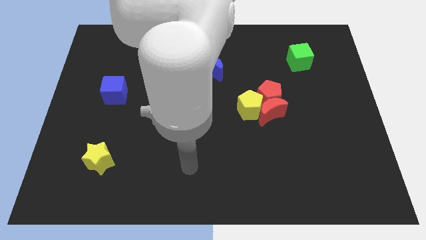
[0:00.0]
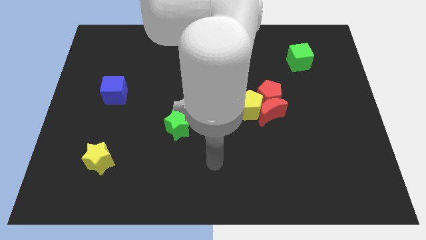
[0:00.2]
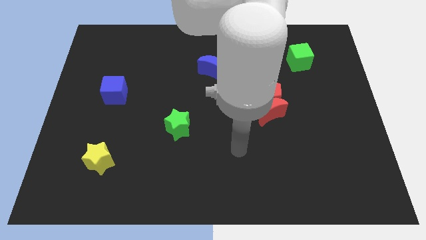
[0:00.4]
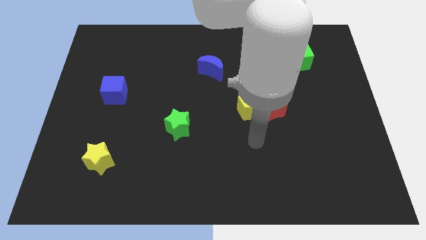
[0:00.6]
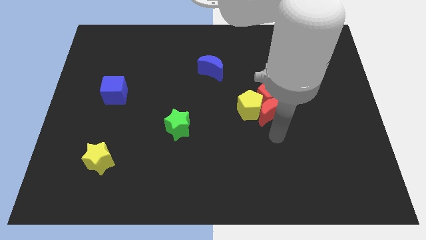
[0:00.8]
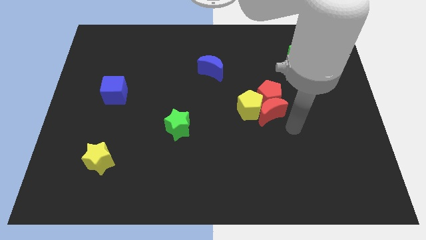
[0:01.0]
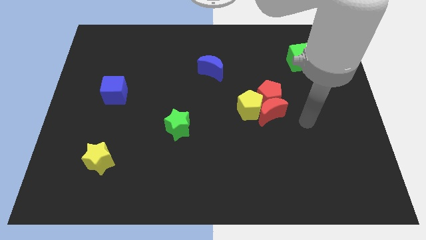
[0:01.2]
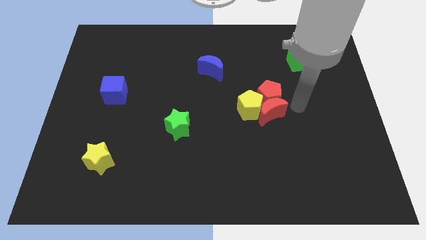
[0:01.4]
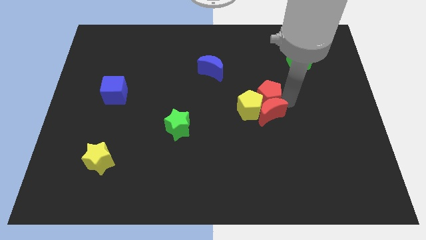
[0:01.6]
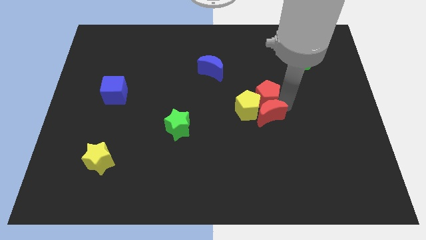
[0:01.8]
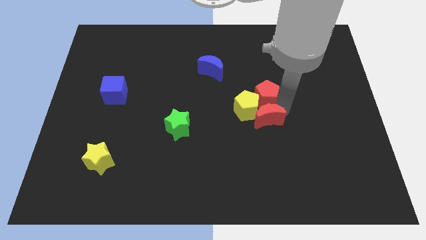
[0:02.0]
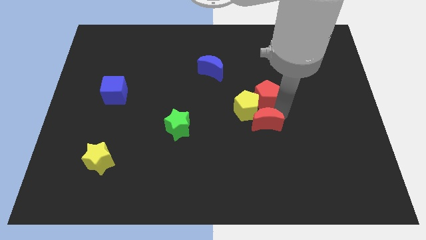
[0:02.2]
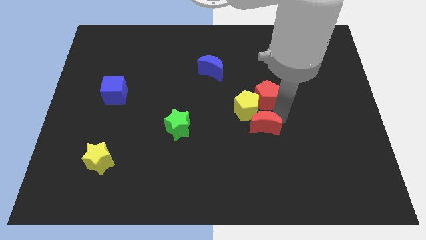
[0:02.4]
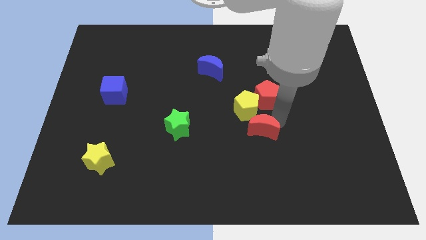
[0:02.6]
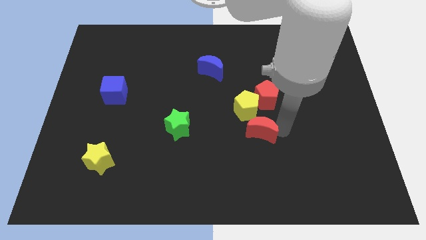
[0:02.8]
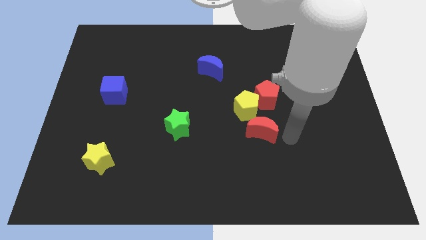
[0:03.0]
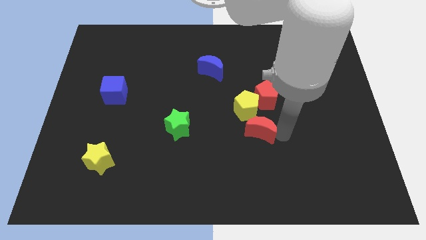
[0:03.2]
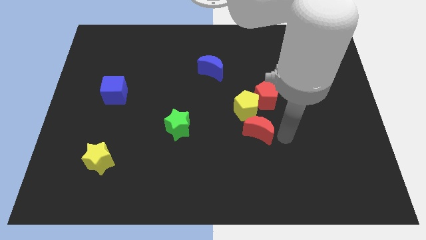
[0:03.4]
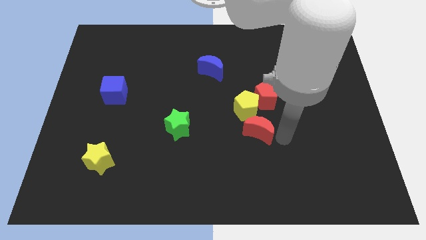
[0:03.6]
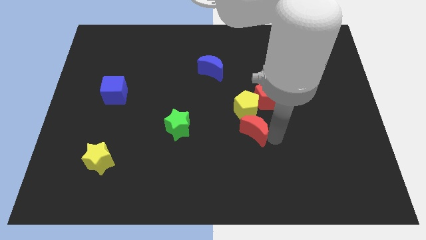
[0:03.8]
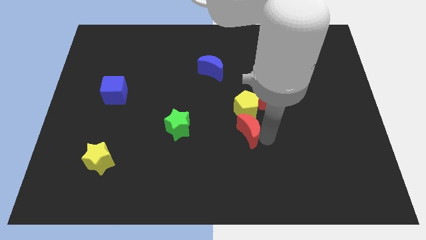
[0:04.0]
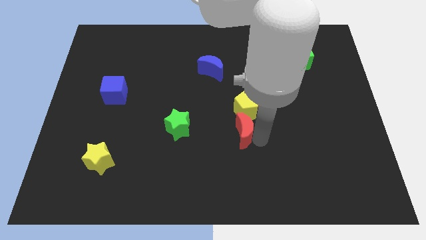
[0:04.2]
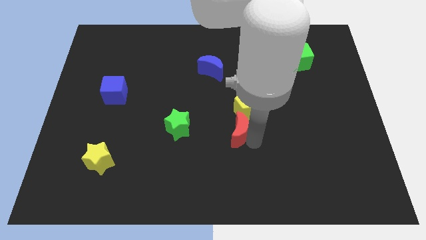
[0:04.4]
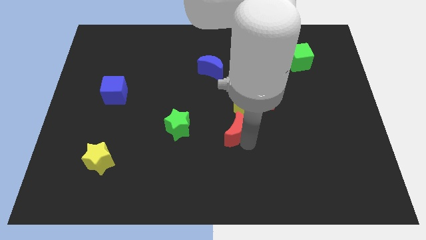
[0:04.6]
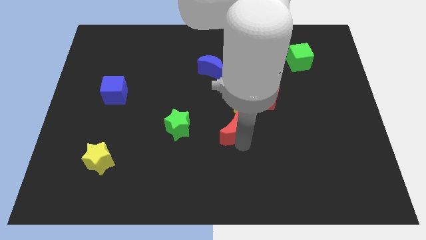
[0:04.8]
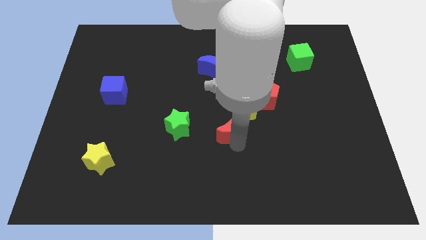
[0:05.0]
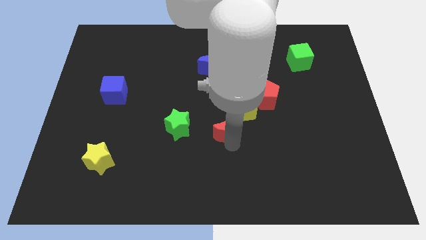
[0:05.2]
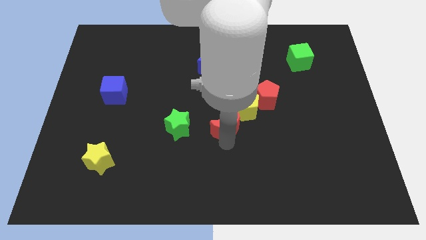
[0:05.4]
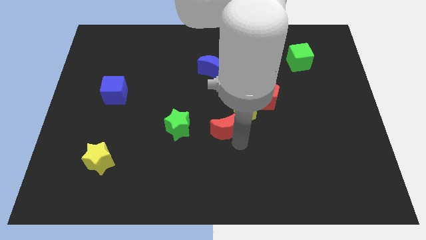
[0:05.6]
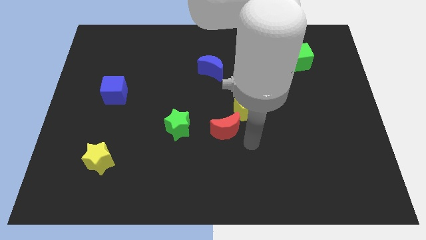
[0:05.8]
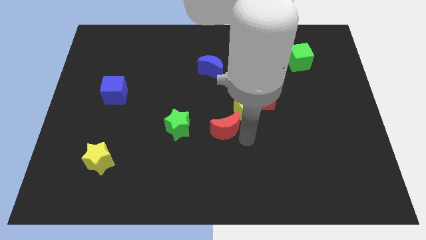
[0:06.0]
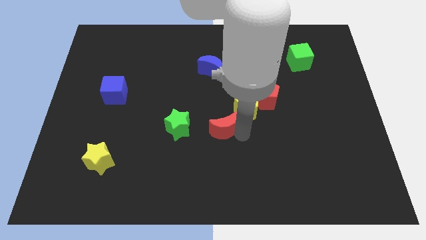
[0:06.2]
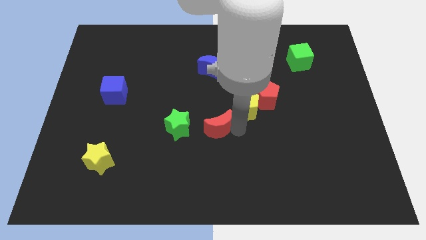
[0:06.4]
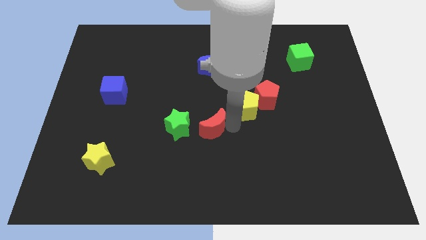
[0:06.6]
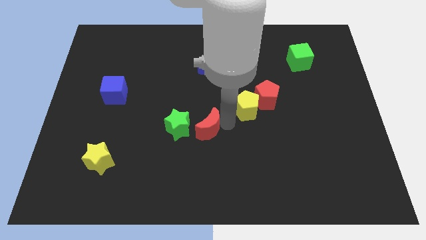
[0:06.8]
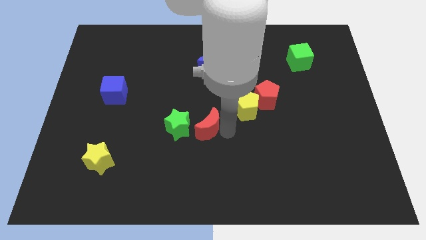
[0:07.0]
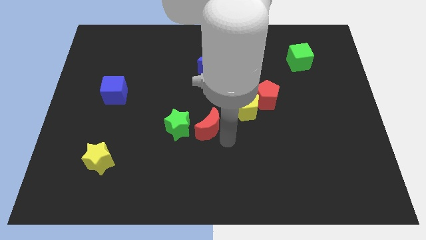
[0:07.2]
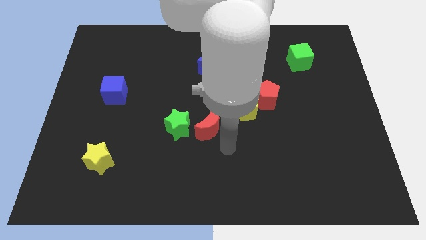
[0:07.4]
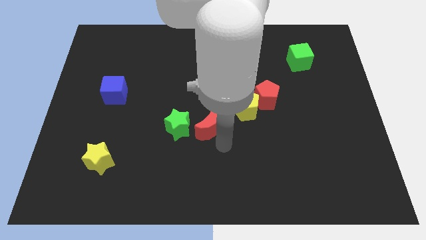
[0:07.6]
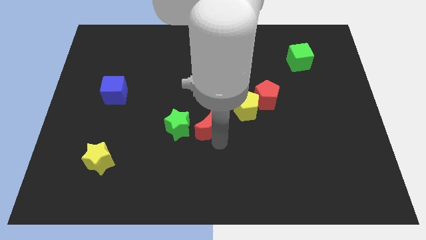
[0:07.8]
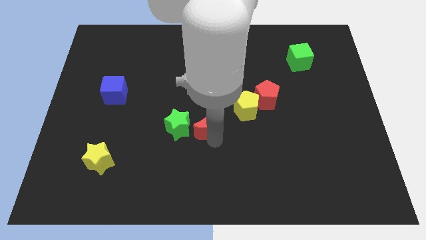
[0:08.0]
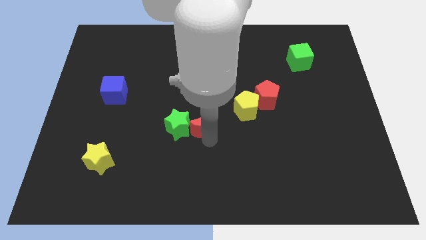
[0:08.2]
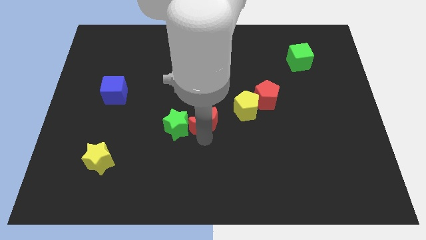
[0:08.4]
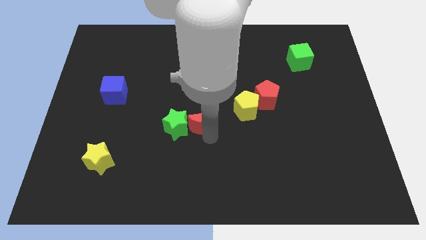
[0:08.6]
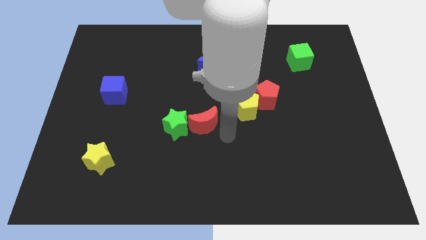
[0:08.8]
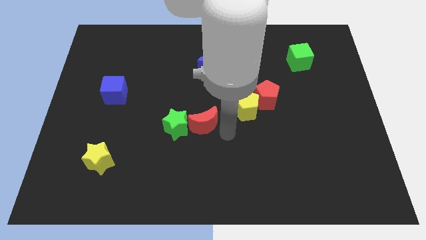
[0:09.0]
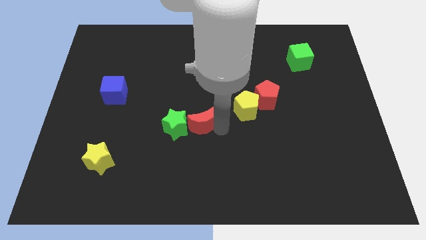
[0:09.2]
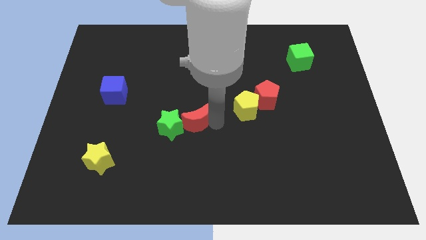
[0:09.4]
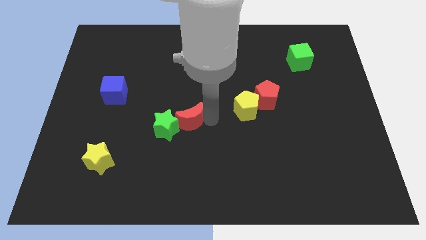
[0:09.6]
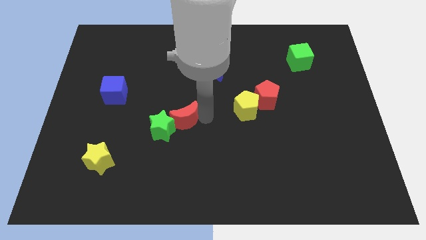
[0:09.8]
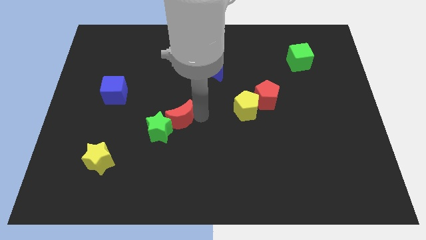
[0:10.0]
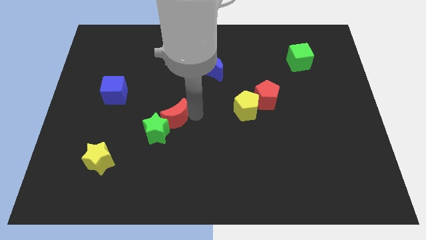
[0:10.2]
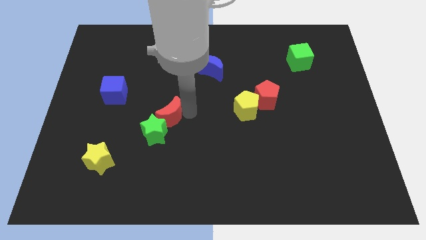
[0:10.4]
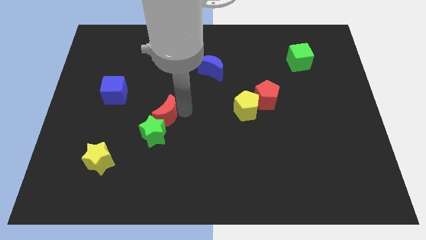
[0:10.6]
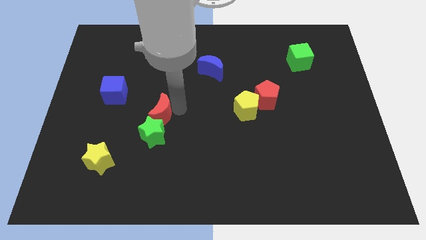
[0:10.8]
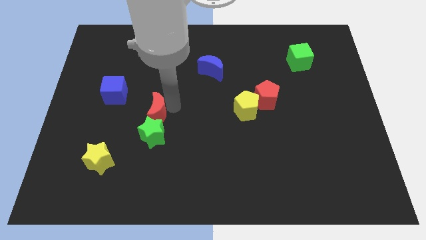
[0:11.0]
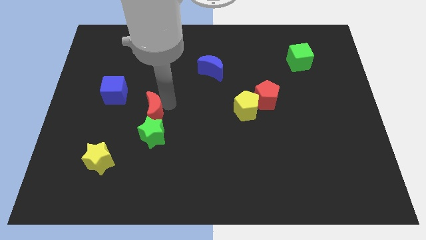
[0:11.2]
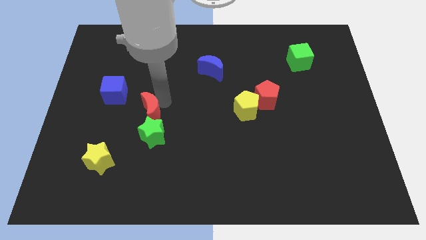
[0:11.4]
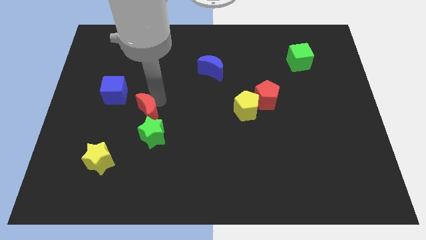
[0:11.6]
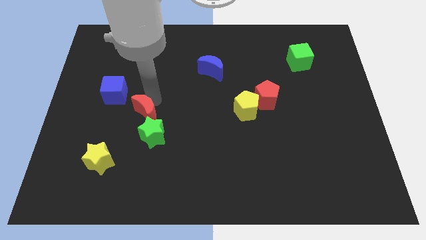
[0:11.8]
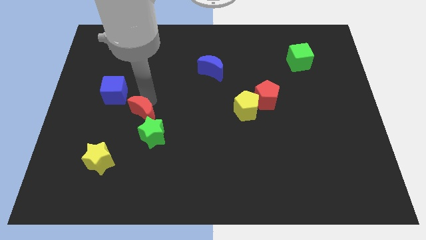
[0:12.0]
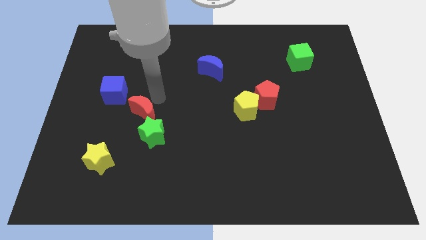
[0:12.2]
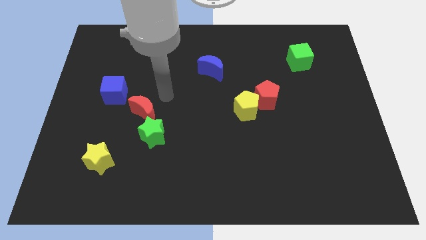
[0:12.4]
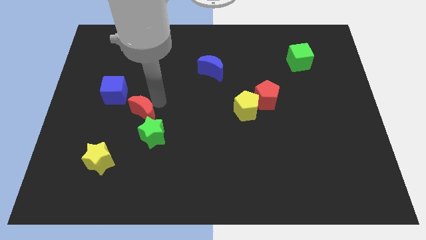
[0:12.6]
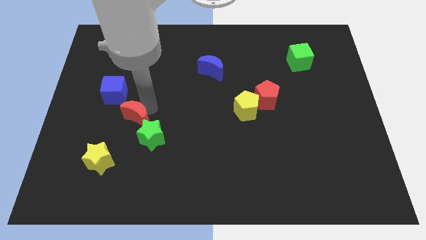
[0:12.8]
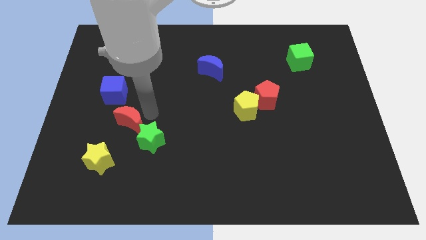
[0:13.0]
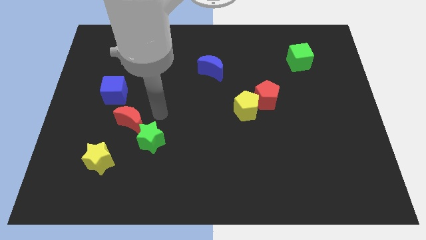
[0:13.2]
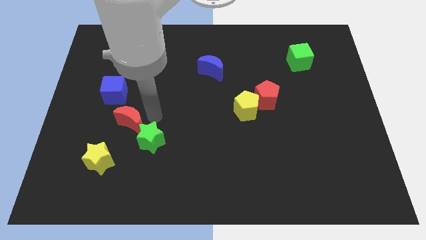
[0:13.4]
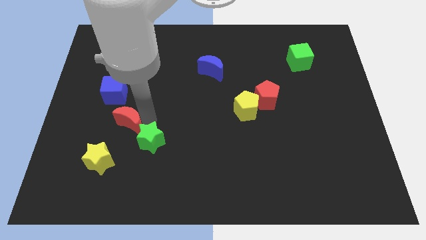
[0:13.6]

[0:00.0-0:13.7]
put the red moon to the bottom of the blue cube
